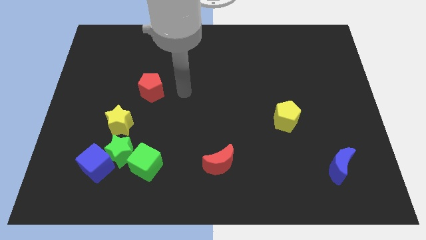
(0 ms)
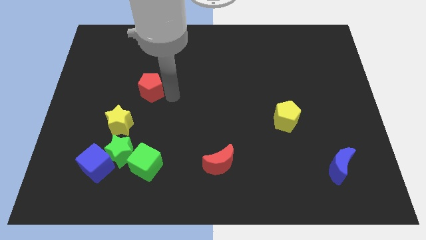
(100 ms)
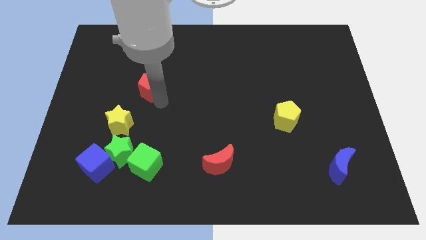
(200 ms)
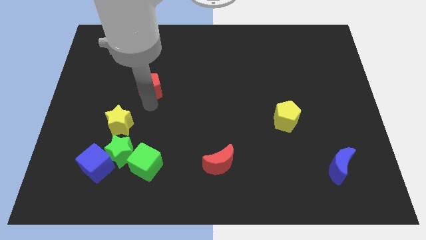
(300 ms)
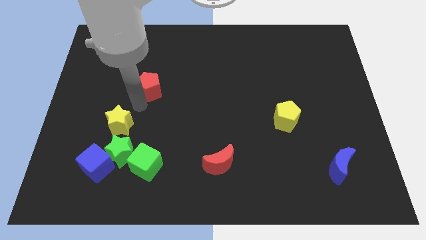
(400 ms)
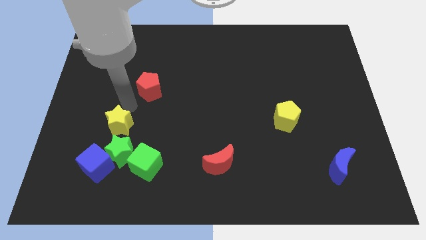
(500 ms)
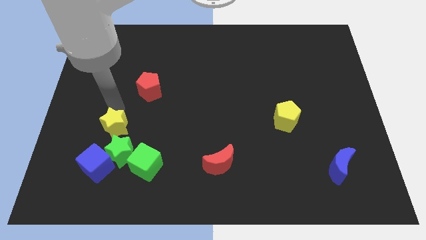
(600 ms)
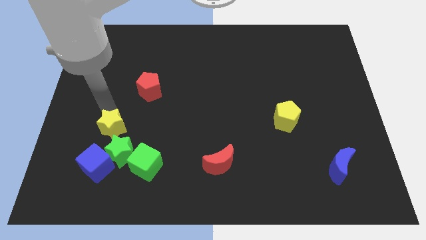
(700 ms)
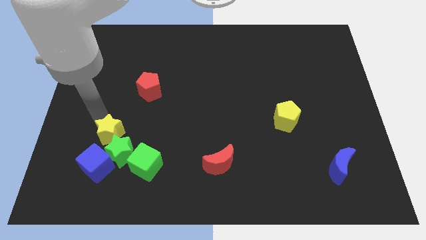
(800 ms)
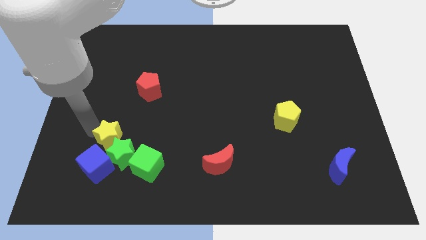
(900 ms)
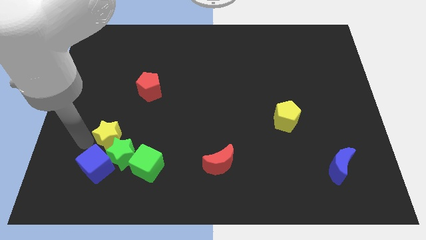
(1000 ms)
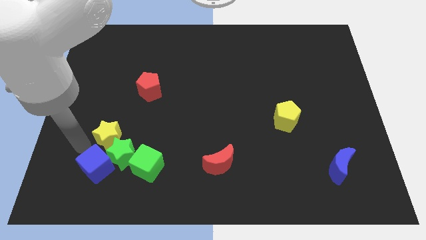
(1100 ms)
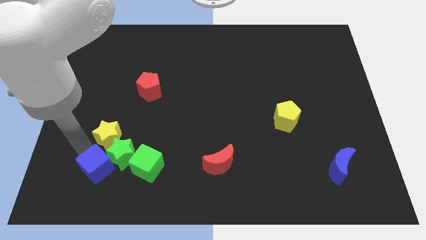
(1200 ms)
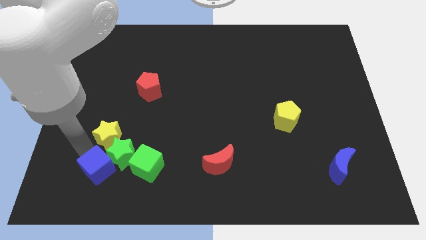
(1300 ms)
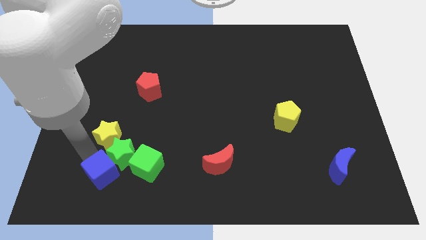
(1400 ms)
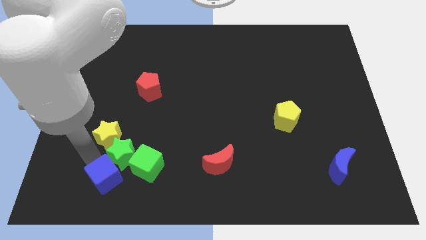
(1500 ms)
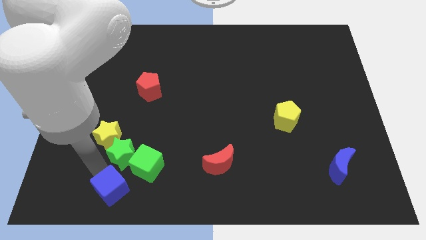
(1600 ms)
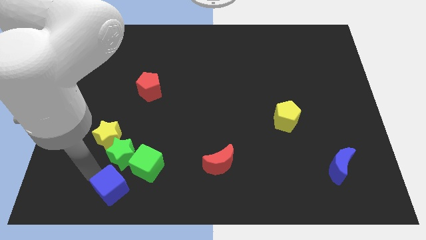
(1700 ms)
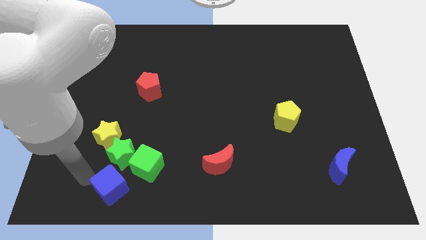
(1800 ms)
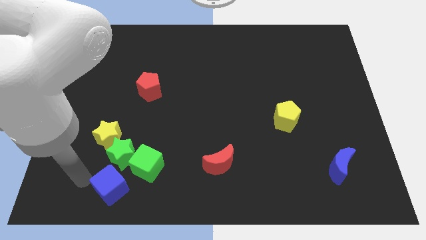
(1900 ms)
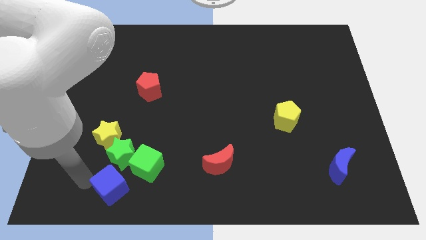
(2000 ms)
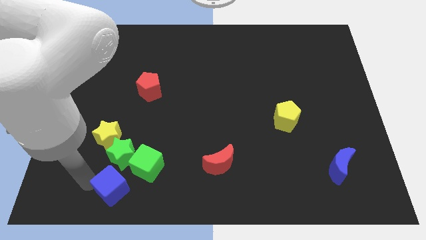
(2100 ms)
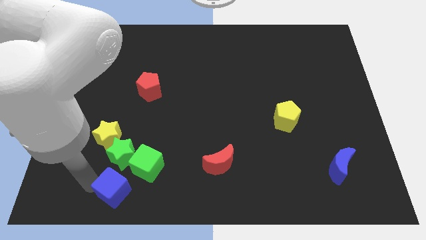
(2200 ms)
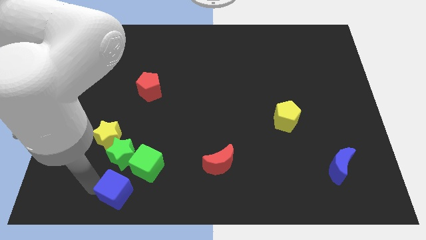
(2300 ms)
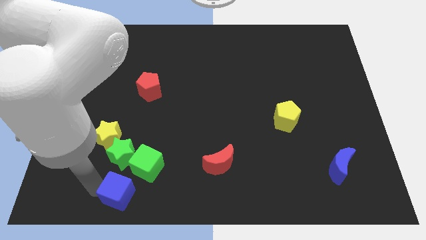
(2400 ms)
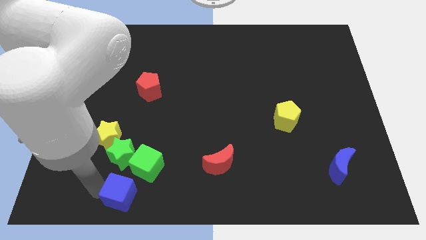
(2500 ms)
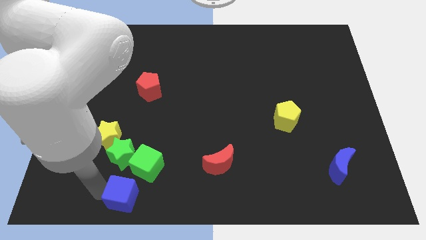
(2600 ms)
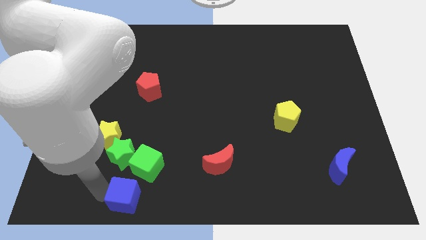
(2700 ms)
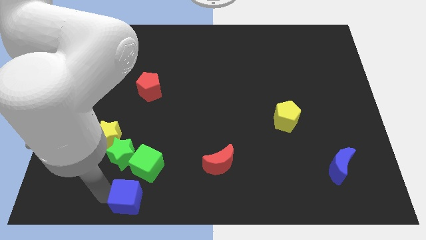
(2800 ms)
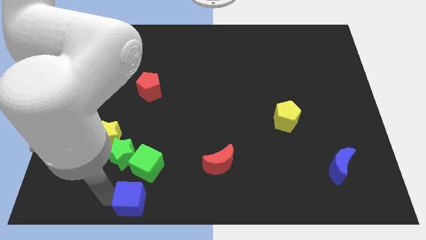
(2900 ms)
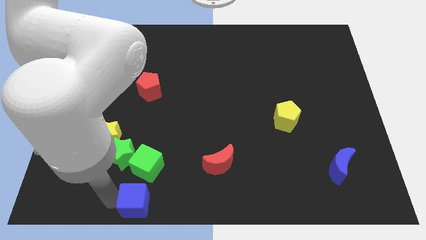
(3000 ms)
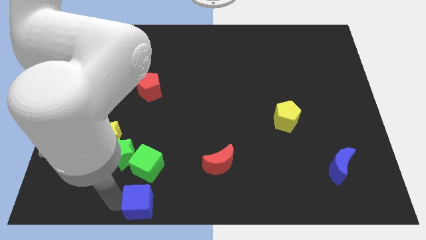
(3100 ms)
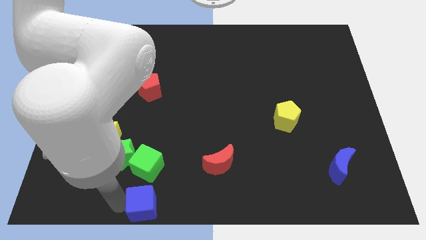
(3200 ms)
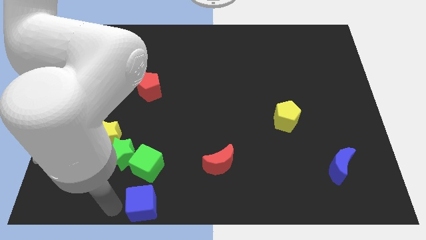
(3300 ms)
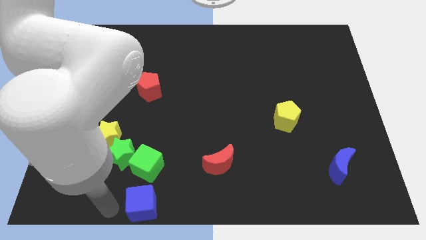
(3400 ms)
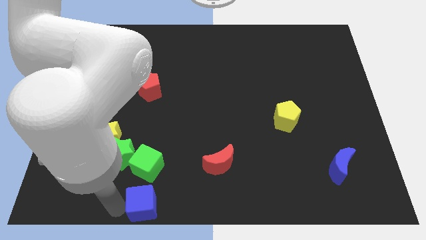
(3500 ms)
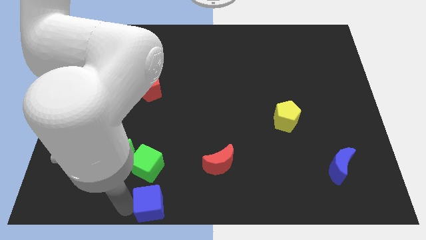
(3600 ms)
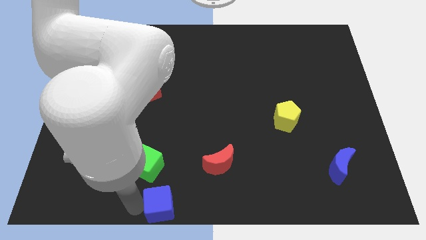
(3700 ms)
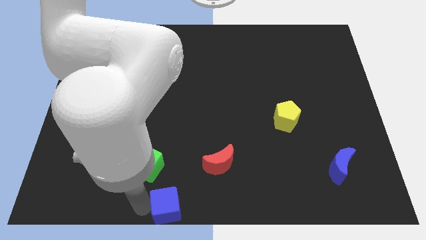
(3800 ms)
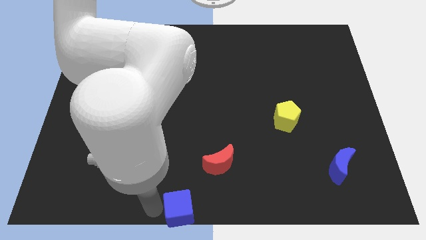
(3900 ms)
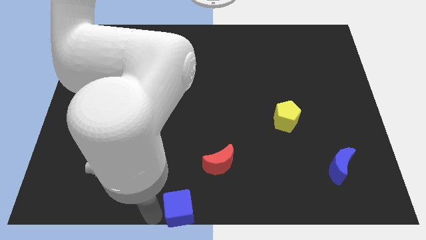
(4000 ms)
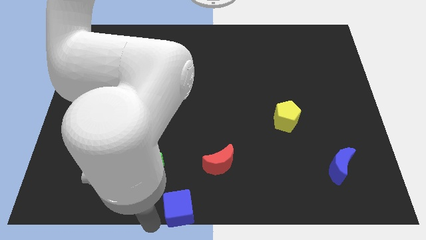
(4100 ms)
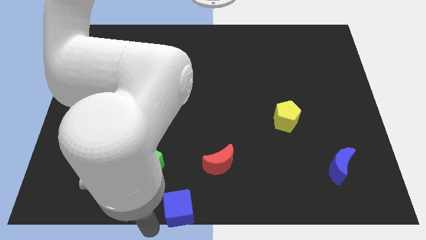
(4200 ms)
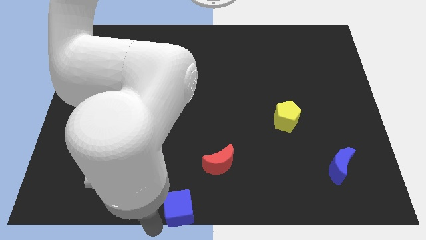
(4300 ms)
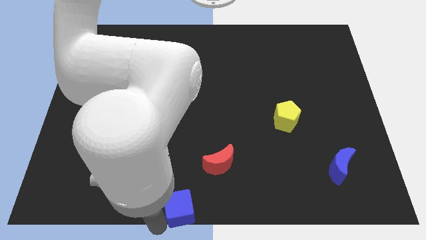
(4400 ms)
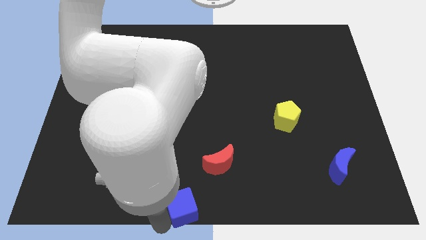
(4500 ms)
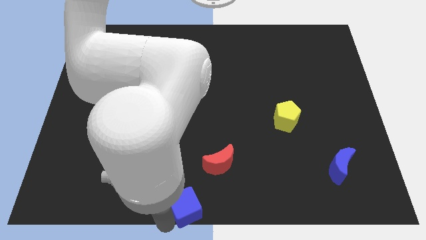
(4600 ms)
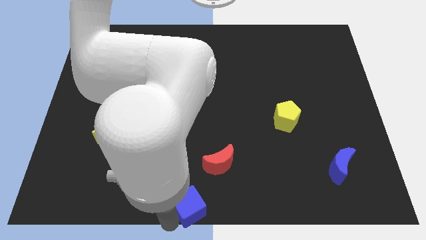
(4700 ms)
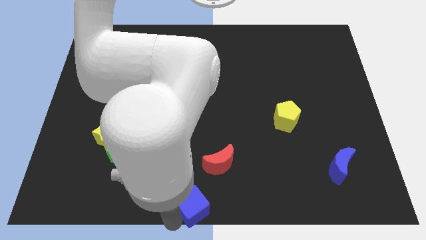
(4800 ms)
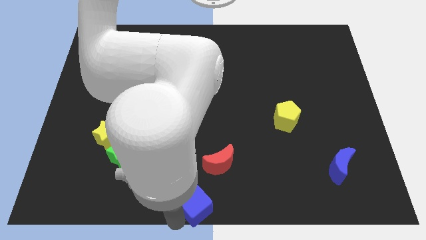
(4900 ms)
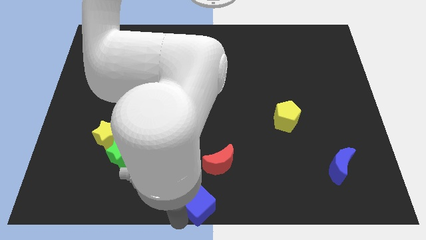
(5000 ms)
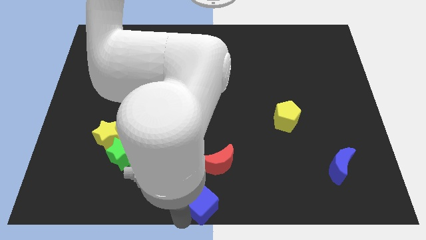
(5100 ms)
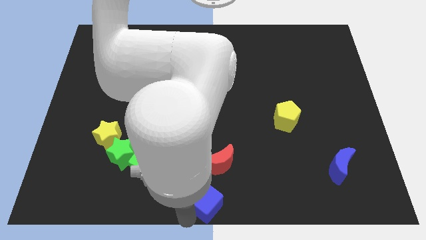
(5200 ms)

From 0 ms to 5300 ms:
move the blue cube right

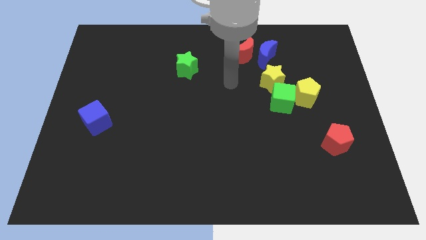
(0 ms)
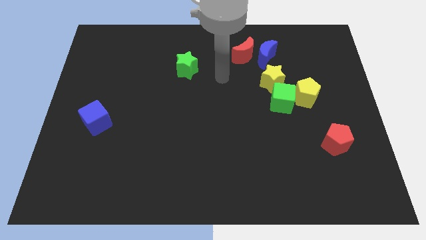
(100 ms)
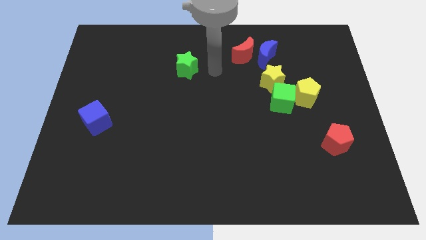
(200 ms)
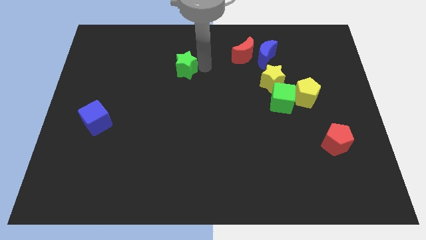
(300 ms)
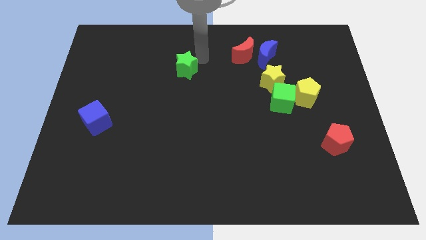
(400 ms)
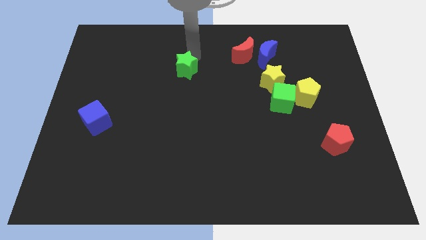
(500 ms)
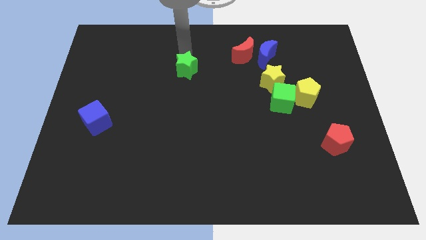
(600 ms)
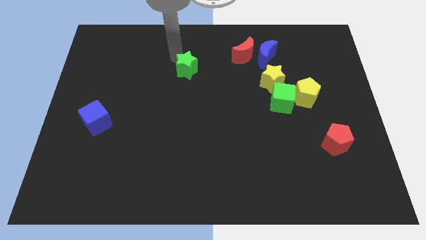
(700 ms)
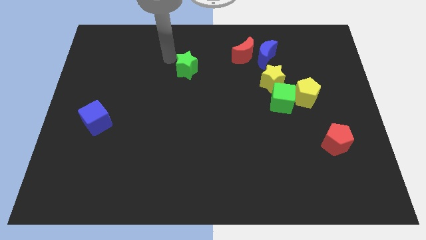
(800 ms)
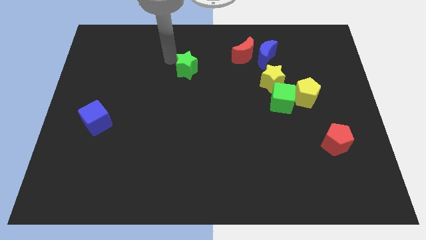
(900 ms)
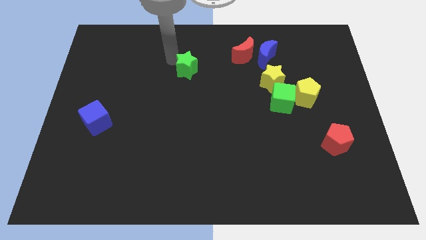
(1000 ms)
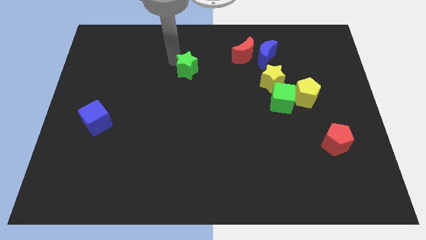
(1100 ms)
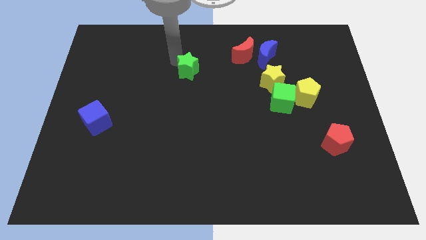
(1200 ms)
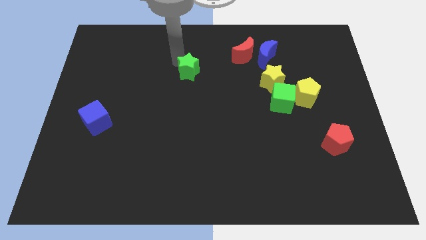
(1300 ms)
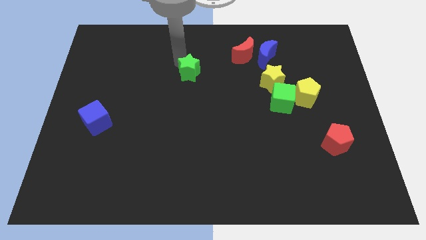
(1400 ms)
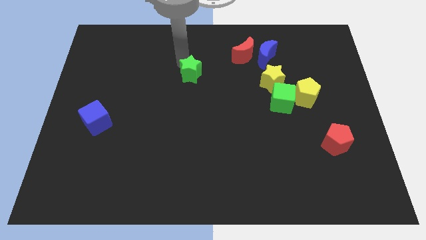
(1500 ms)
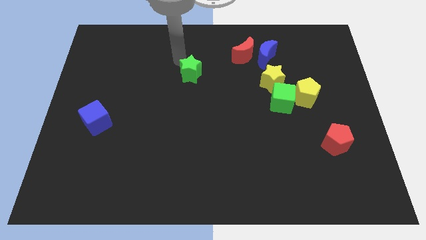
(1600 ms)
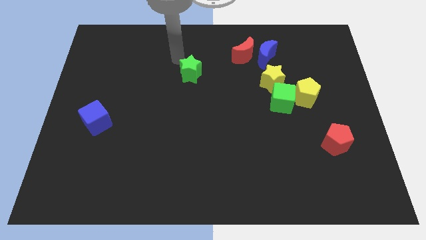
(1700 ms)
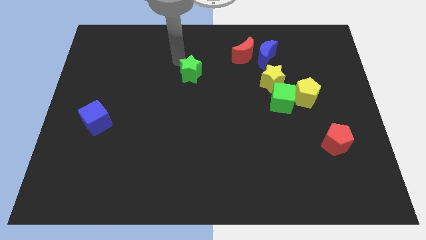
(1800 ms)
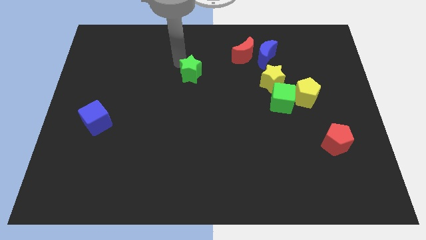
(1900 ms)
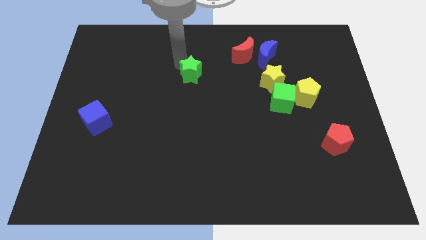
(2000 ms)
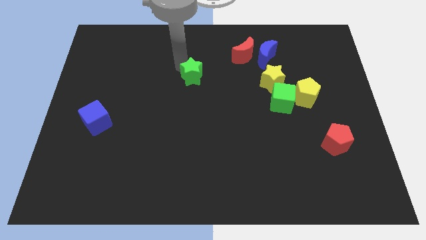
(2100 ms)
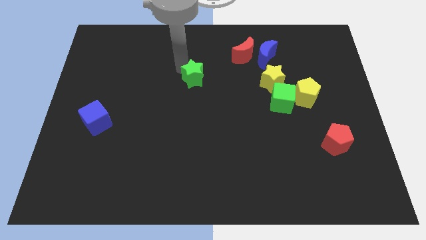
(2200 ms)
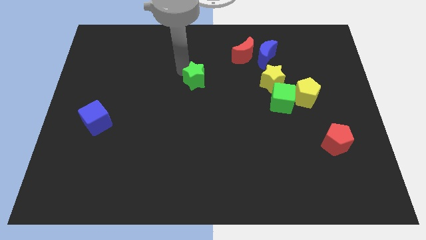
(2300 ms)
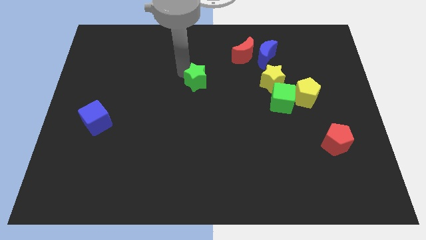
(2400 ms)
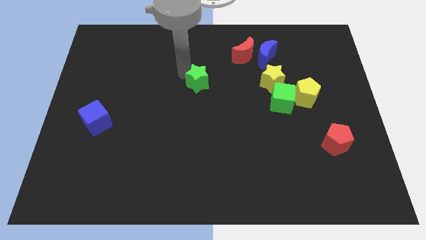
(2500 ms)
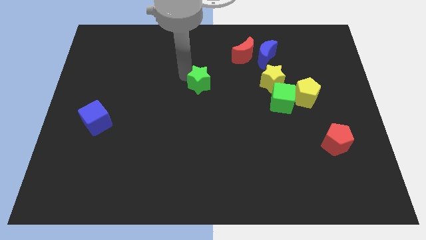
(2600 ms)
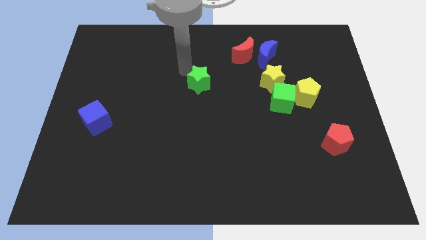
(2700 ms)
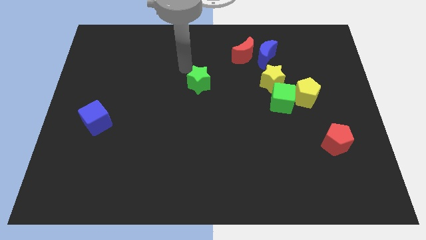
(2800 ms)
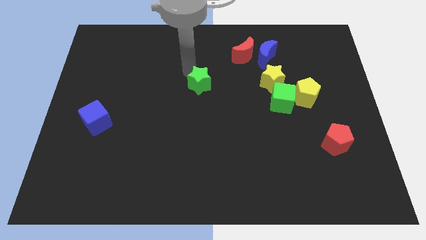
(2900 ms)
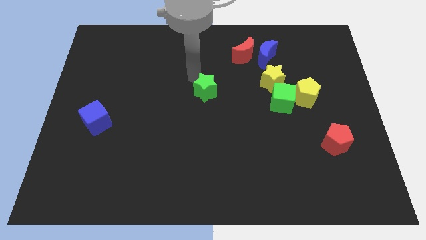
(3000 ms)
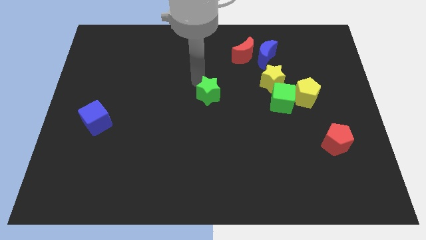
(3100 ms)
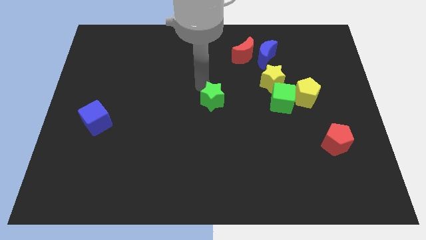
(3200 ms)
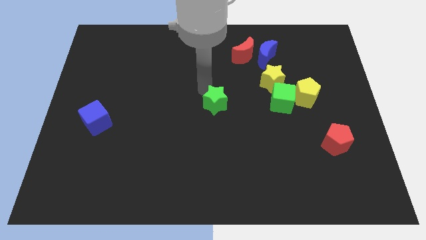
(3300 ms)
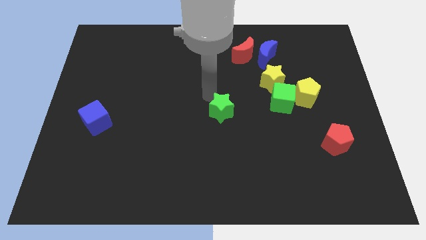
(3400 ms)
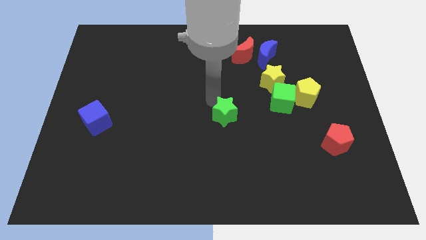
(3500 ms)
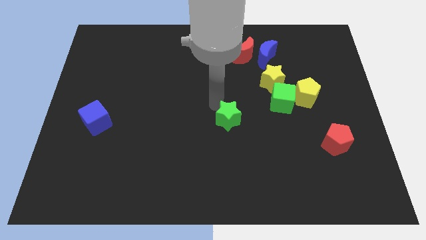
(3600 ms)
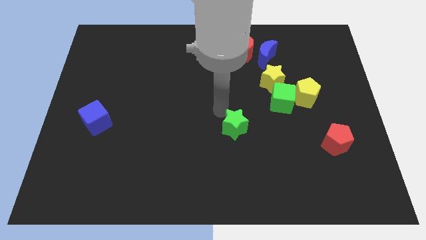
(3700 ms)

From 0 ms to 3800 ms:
push the green star down and right diagonally
